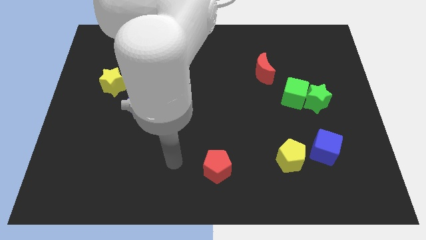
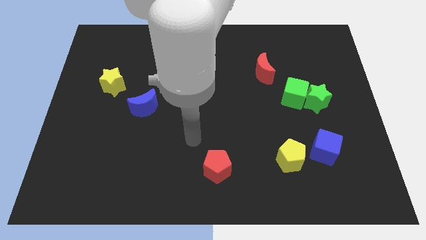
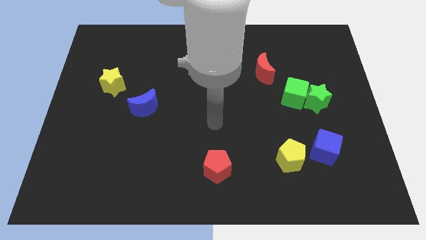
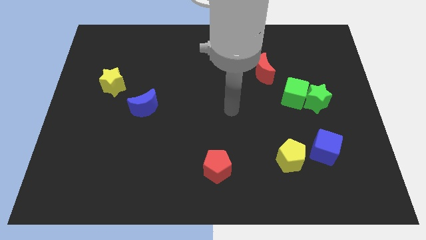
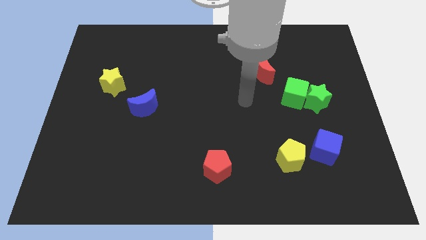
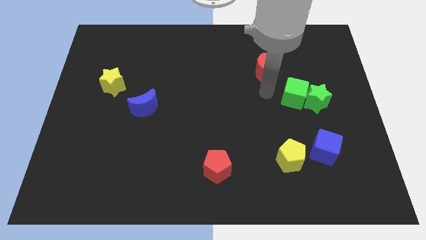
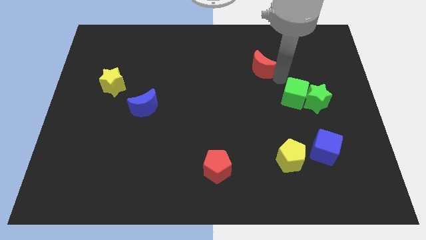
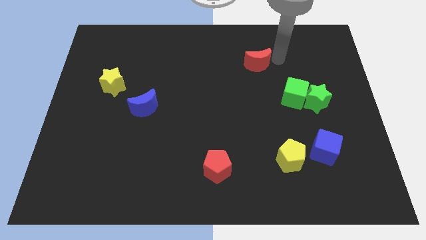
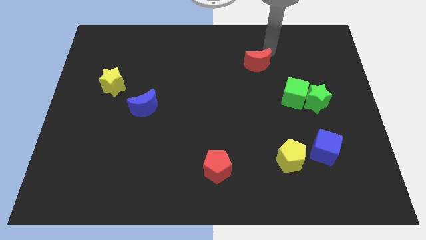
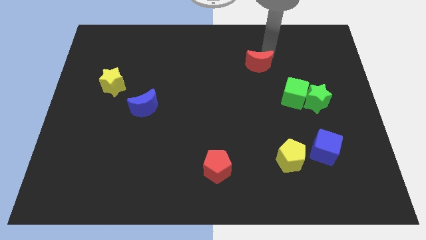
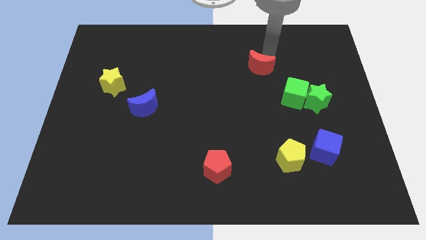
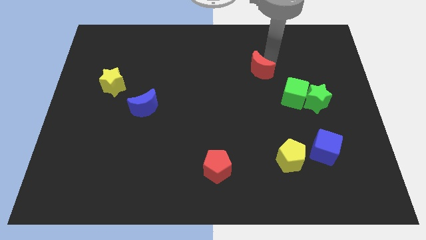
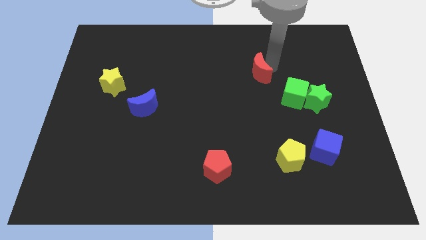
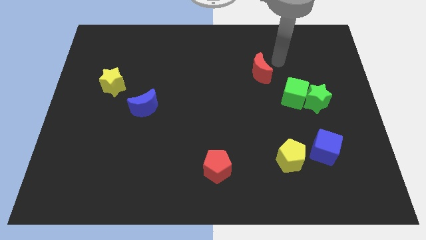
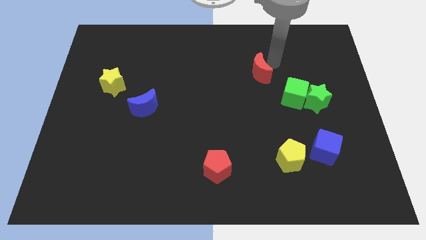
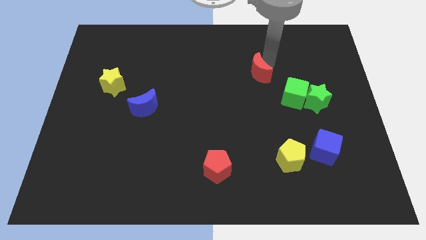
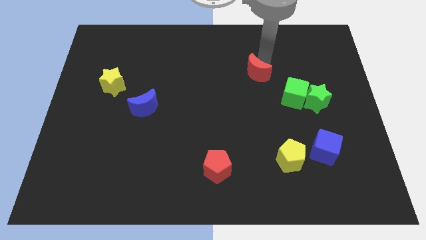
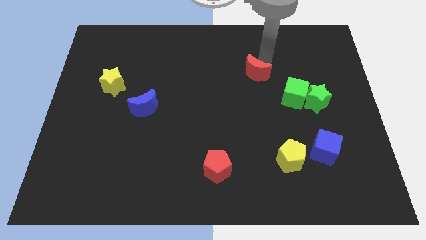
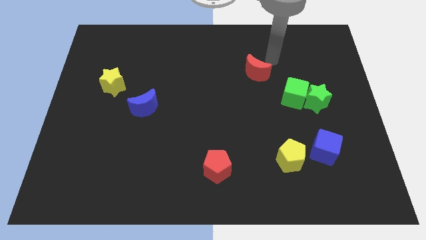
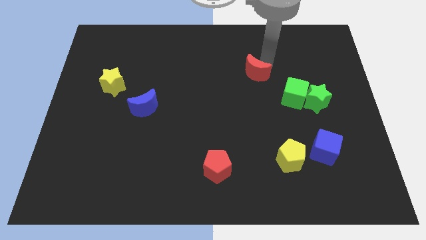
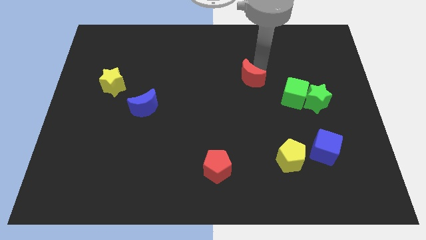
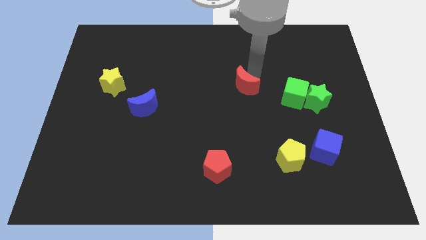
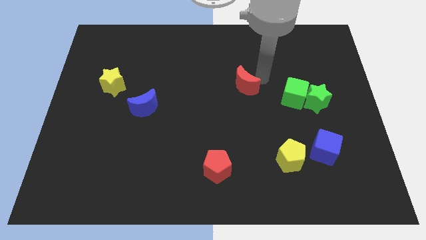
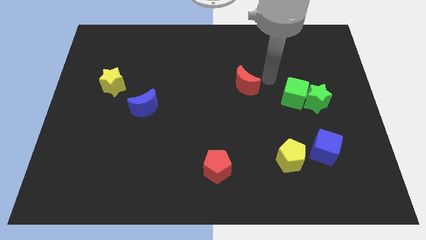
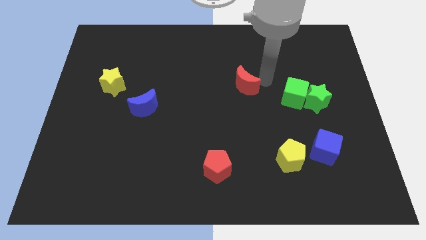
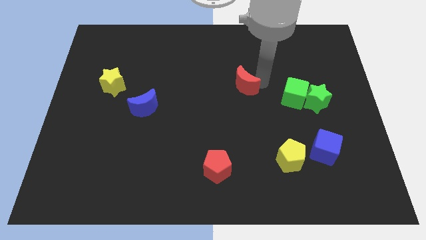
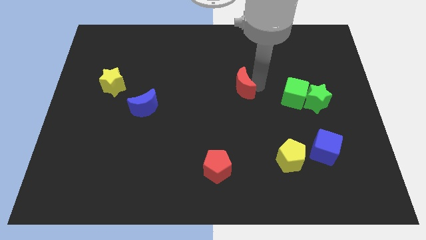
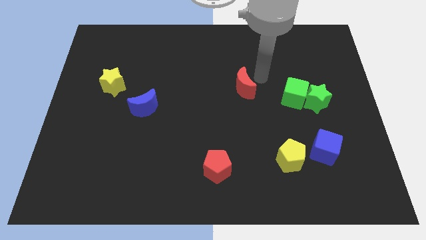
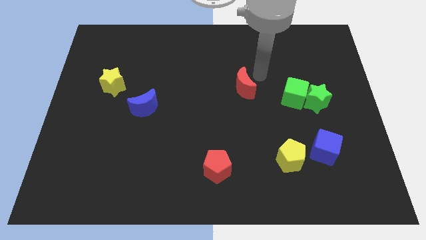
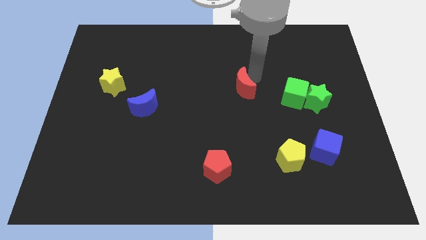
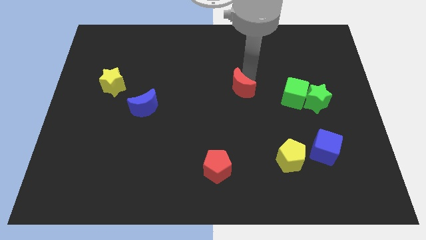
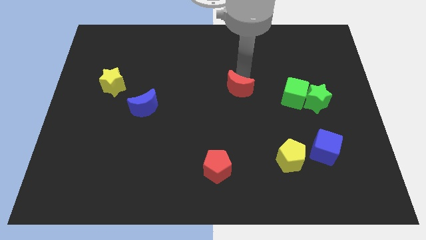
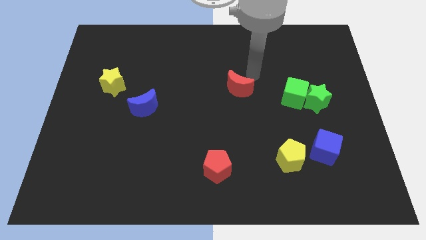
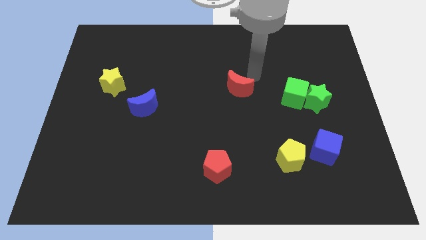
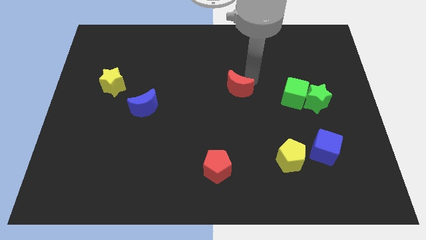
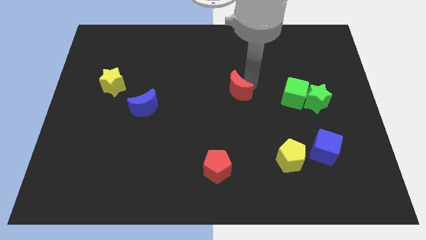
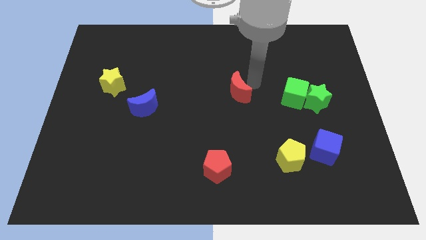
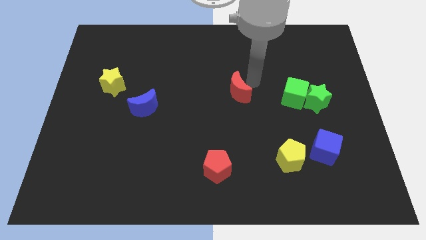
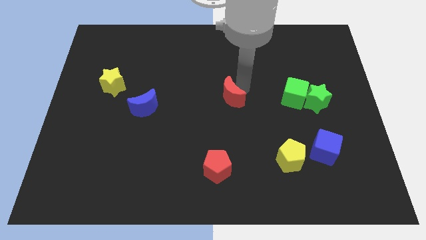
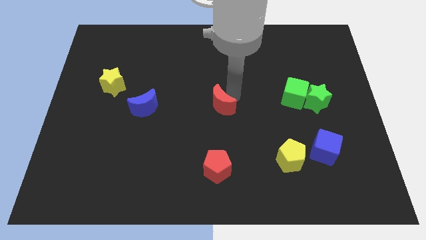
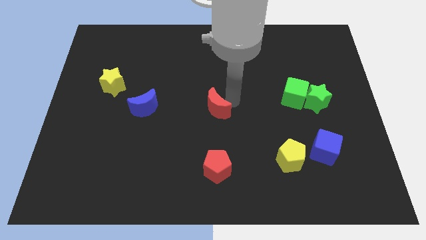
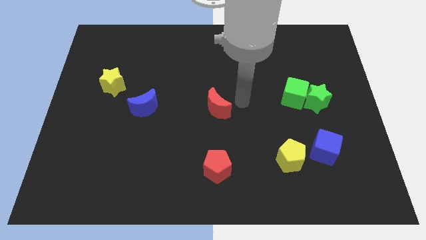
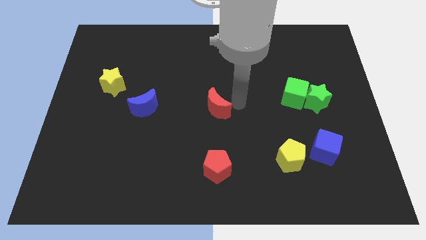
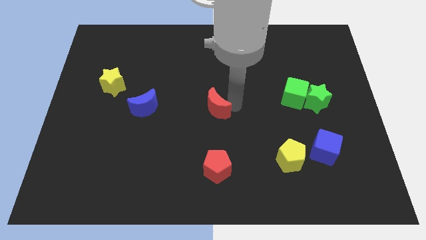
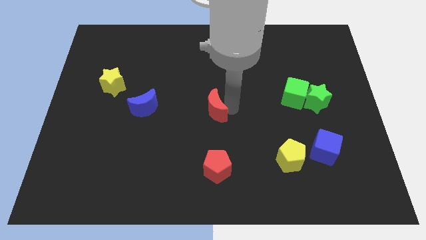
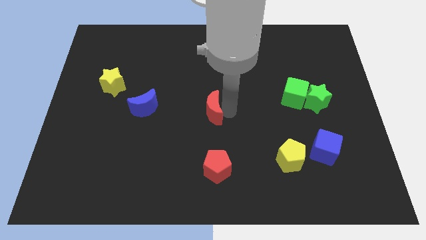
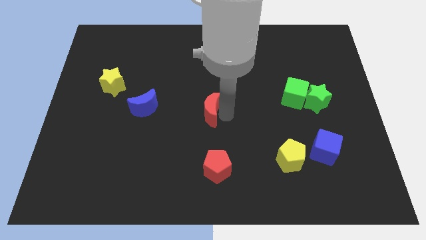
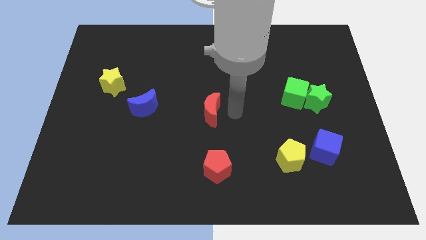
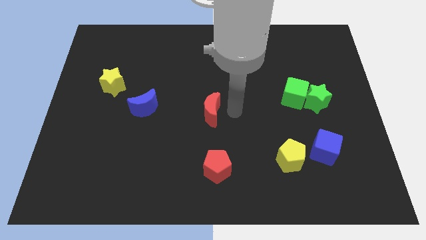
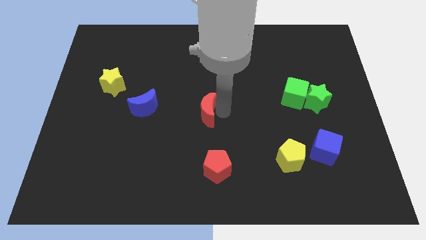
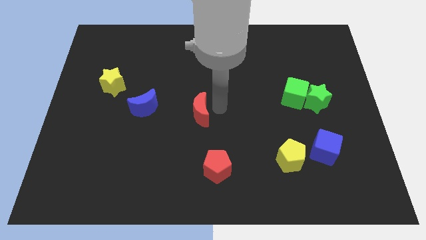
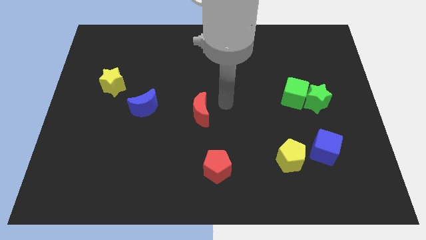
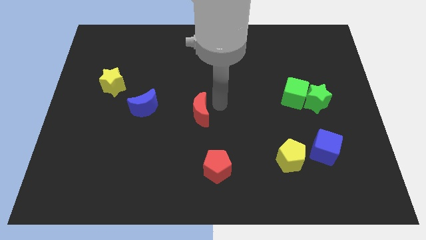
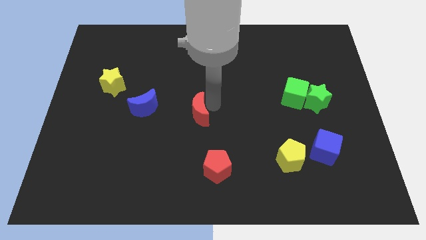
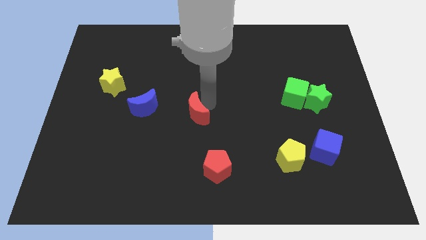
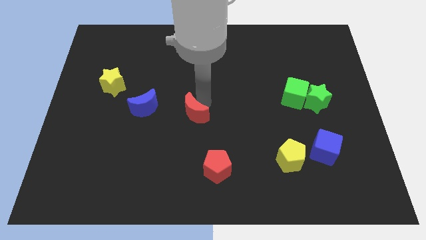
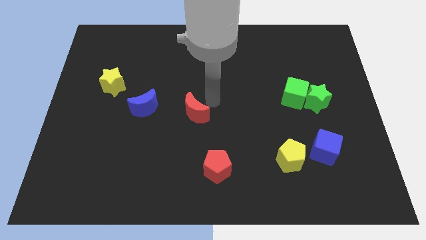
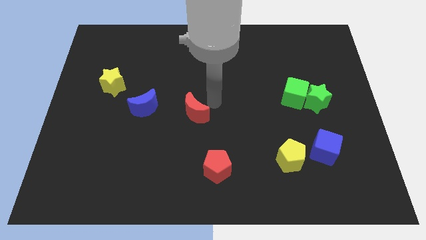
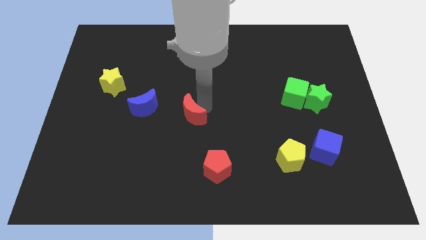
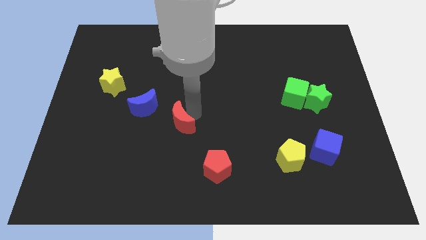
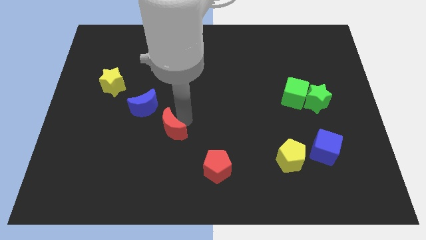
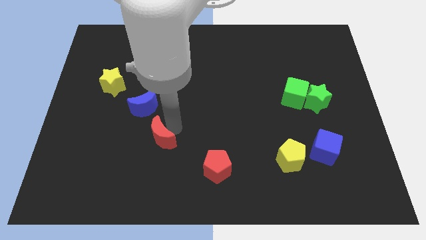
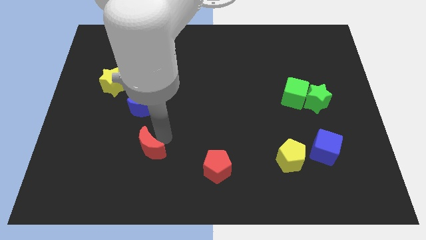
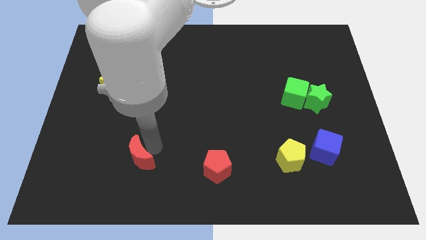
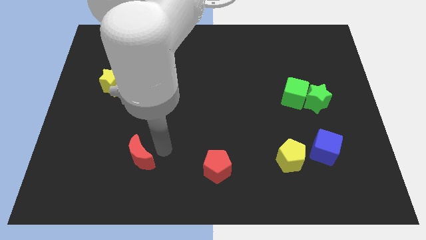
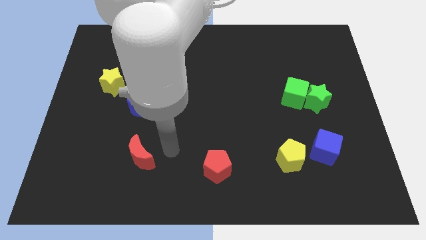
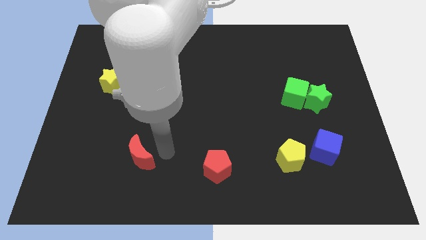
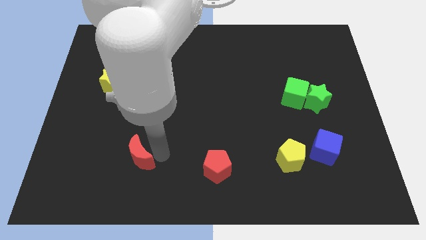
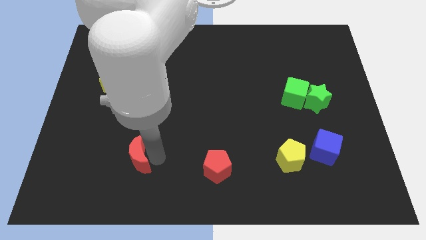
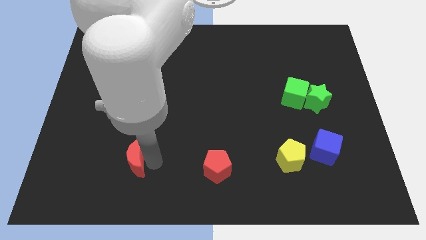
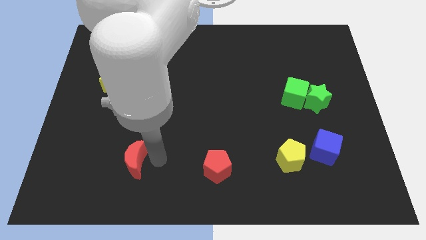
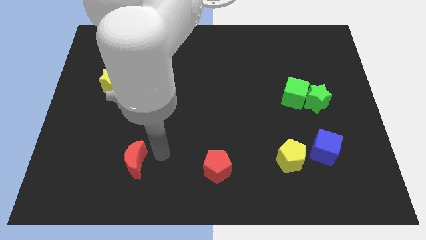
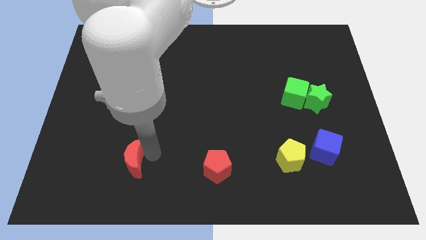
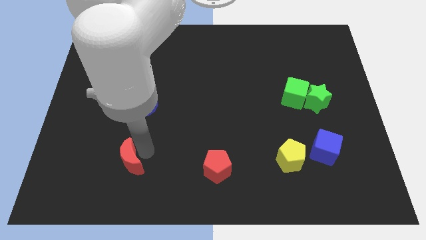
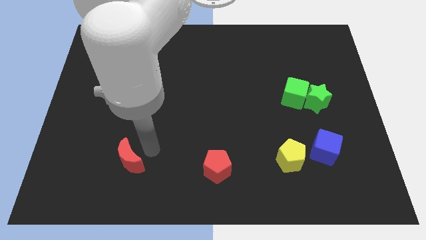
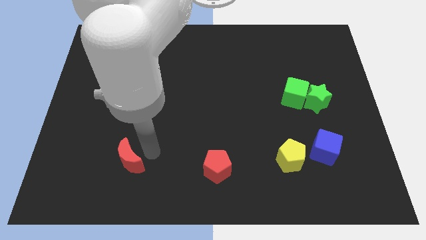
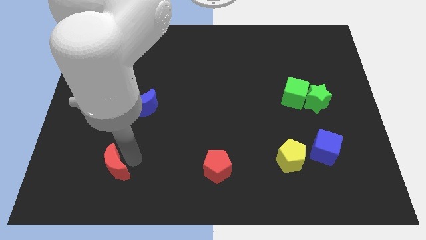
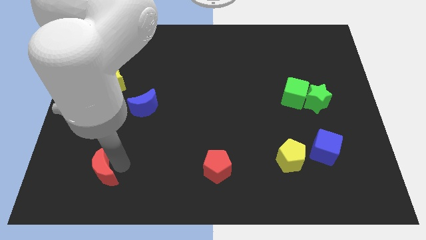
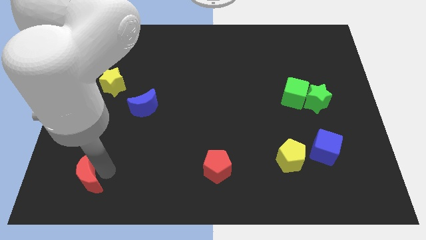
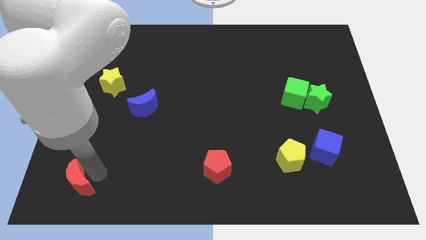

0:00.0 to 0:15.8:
move the red moon to the bottom left corner
